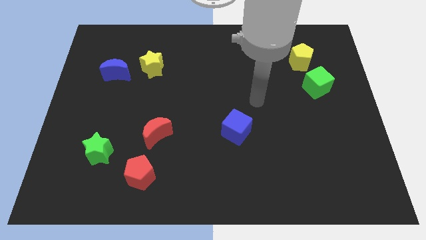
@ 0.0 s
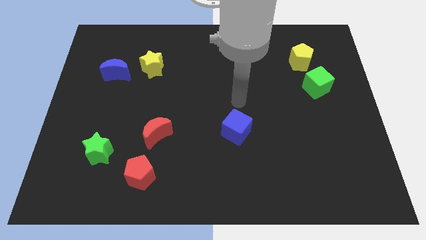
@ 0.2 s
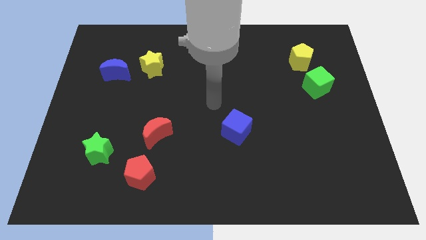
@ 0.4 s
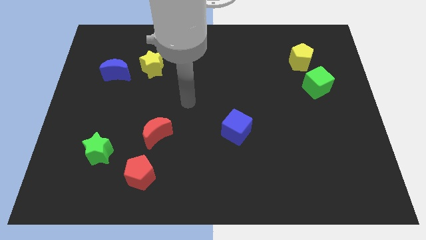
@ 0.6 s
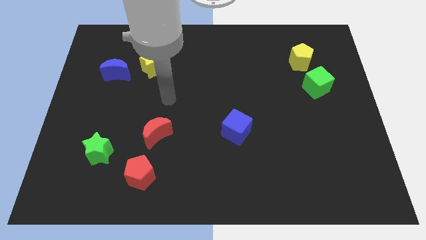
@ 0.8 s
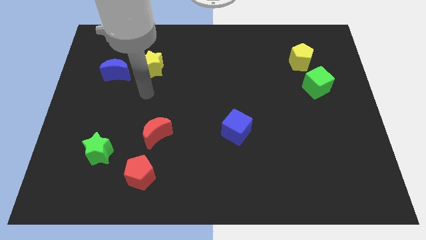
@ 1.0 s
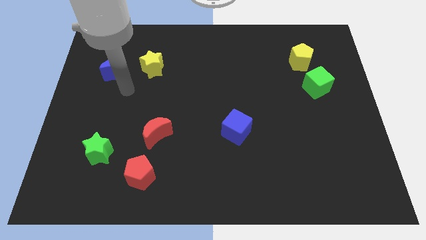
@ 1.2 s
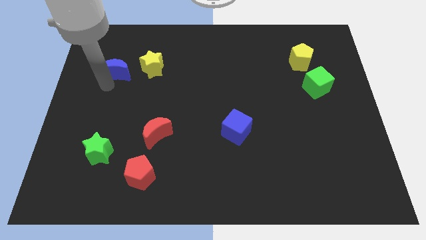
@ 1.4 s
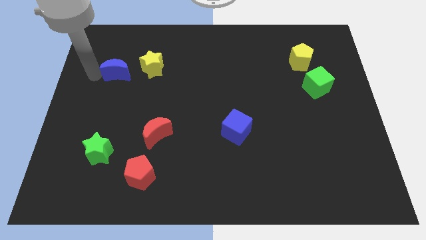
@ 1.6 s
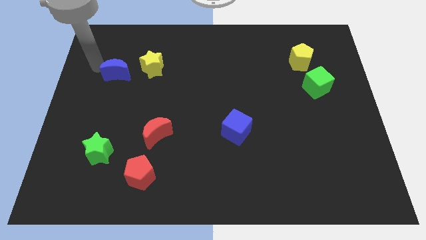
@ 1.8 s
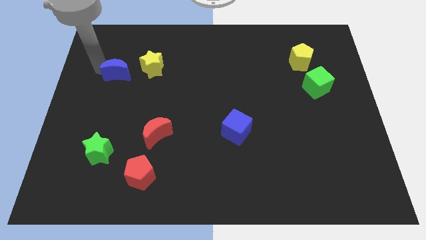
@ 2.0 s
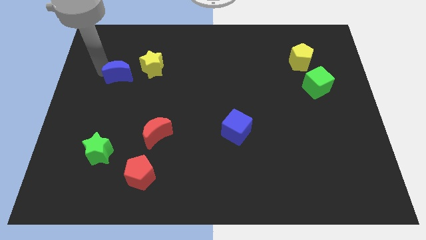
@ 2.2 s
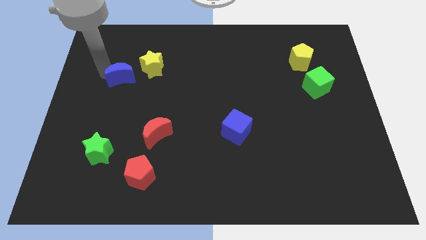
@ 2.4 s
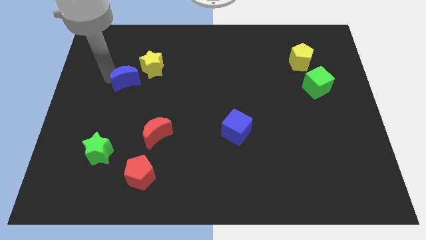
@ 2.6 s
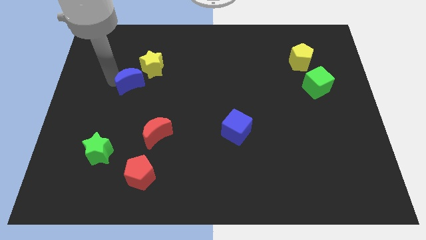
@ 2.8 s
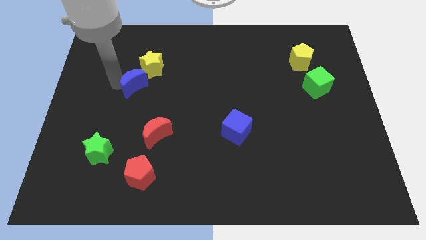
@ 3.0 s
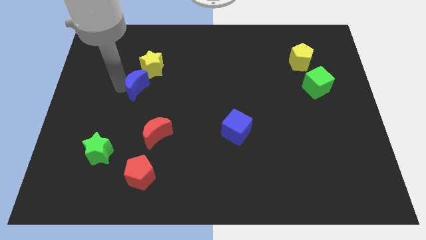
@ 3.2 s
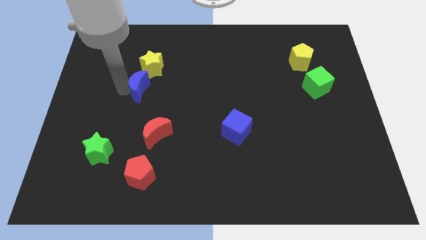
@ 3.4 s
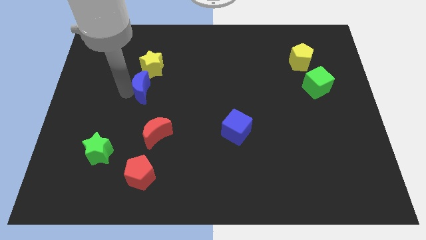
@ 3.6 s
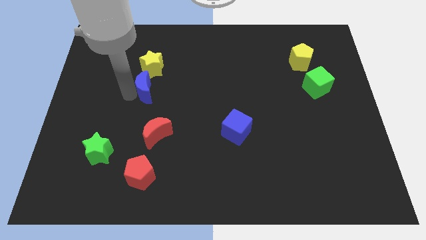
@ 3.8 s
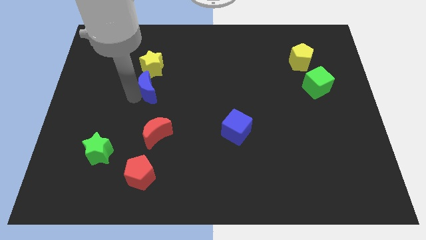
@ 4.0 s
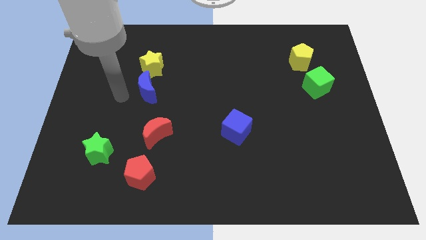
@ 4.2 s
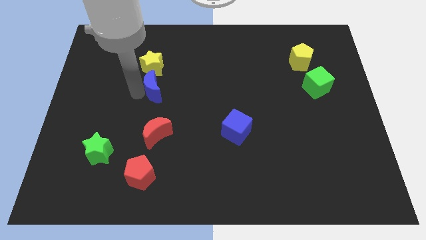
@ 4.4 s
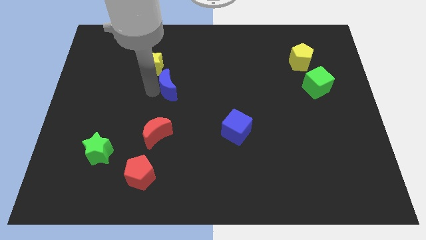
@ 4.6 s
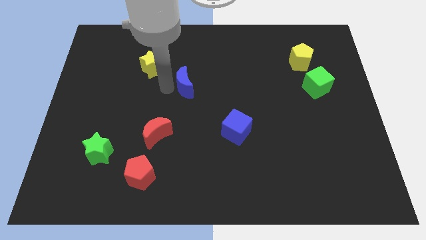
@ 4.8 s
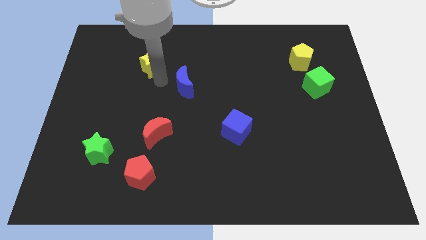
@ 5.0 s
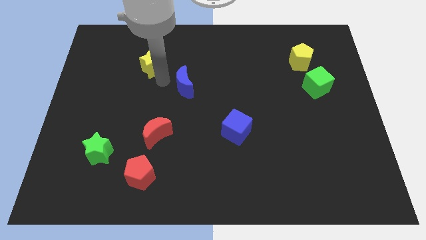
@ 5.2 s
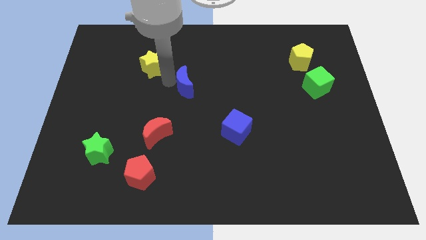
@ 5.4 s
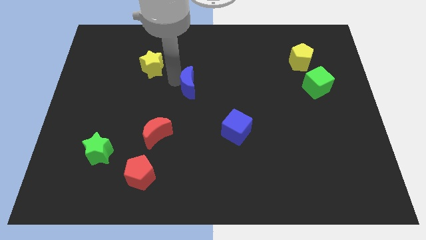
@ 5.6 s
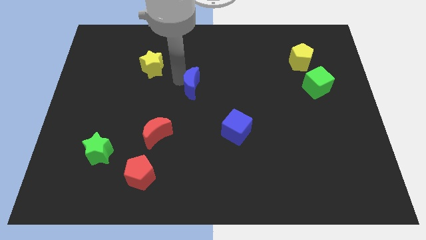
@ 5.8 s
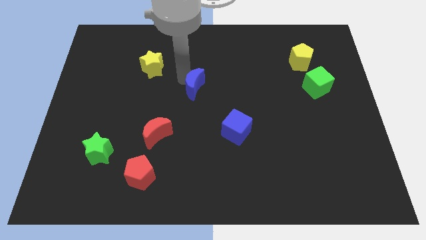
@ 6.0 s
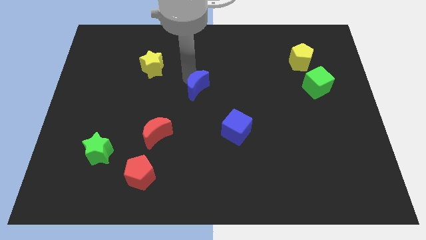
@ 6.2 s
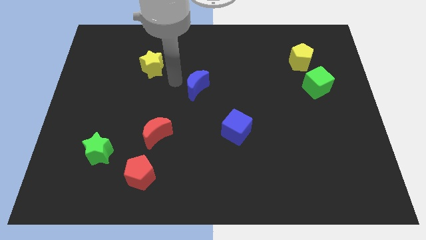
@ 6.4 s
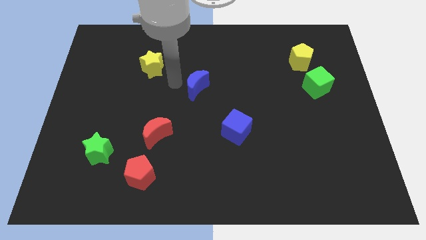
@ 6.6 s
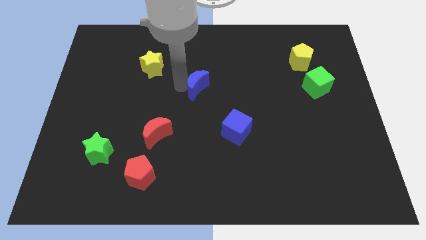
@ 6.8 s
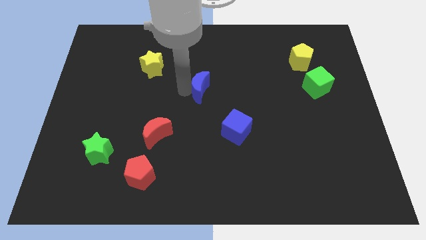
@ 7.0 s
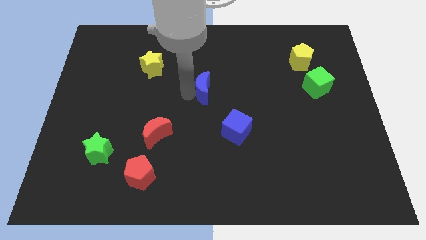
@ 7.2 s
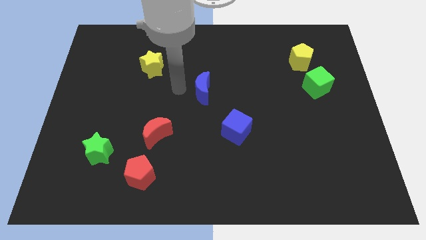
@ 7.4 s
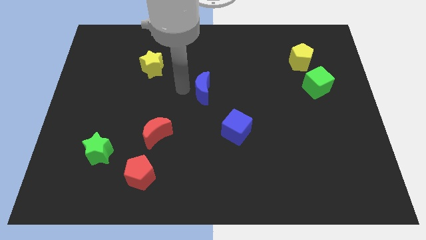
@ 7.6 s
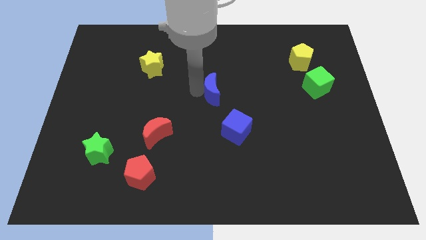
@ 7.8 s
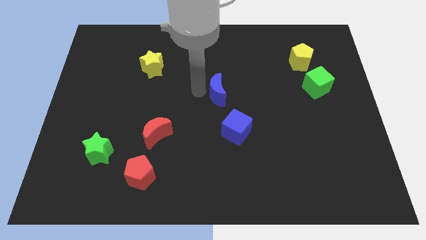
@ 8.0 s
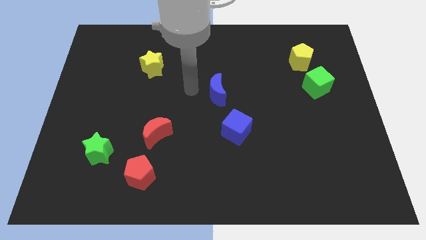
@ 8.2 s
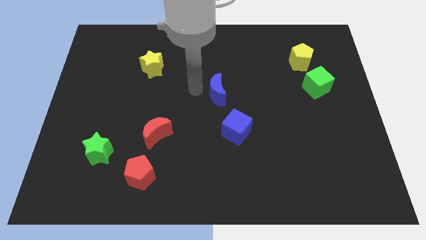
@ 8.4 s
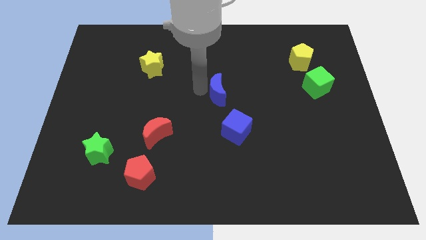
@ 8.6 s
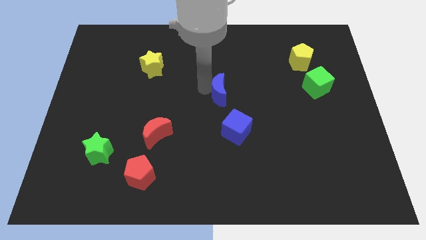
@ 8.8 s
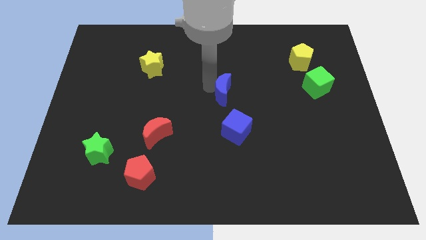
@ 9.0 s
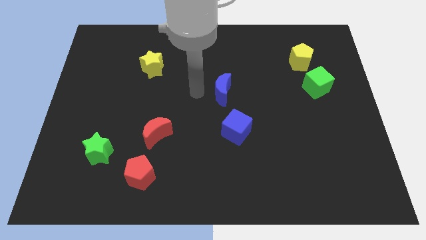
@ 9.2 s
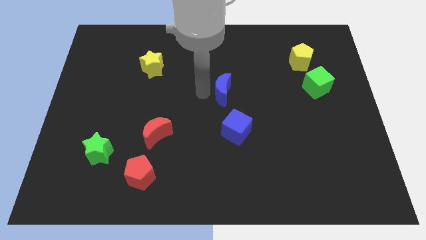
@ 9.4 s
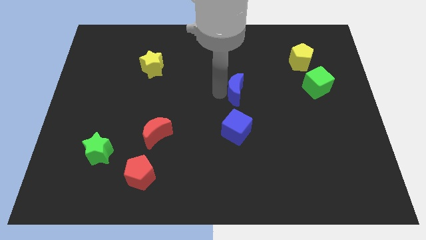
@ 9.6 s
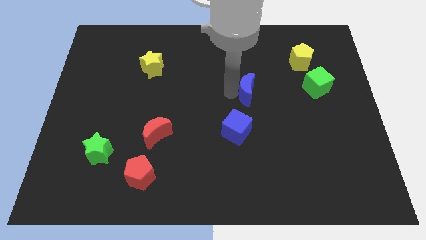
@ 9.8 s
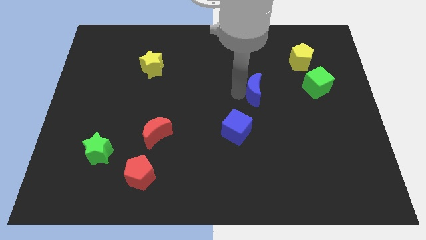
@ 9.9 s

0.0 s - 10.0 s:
move the blue moon to the left side of the green cube

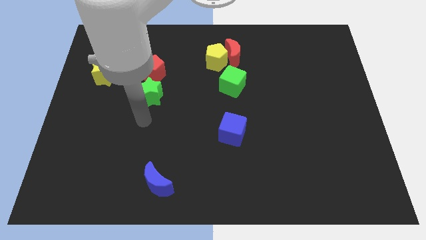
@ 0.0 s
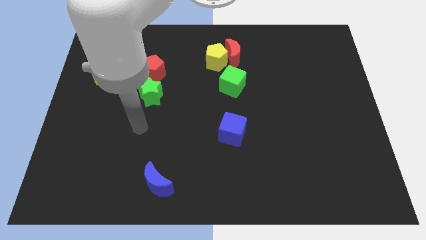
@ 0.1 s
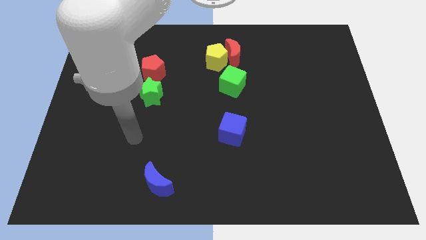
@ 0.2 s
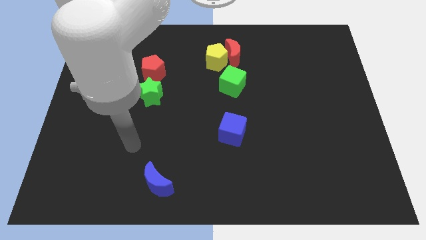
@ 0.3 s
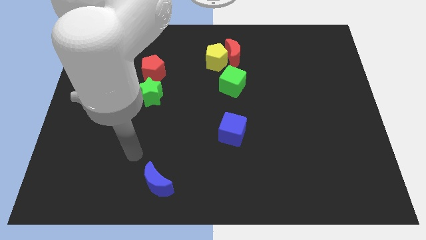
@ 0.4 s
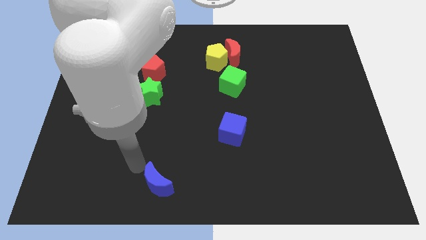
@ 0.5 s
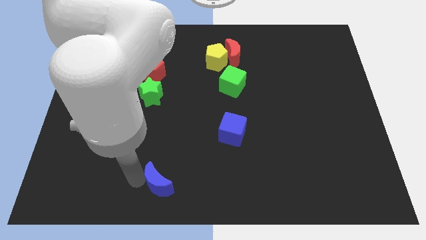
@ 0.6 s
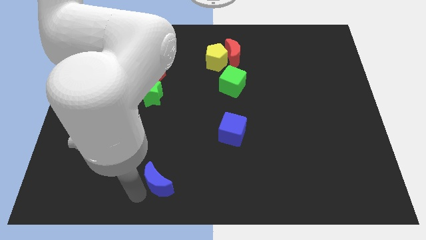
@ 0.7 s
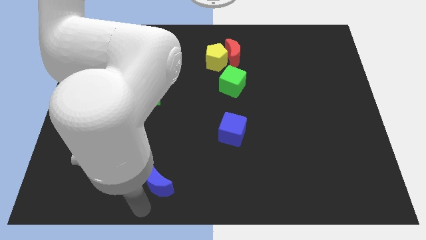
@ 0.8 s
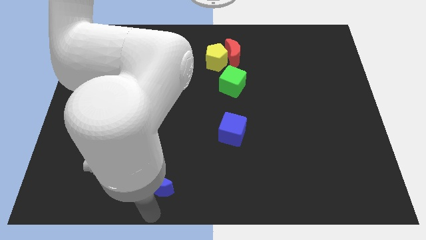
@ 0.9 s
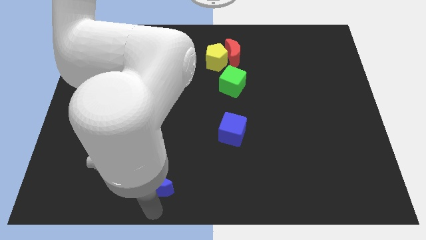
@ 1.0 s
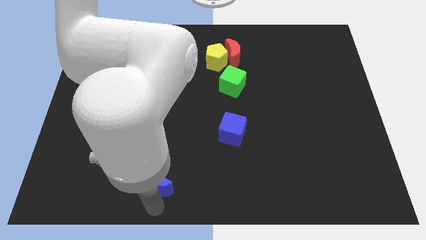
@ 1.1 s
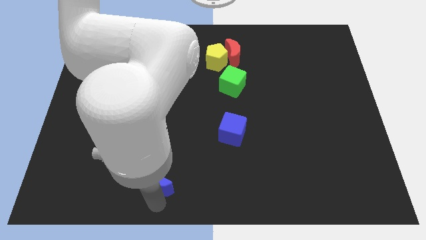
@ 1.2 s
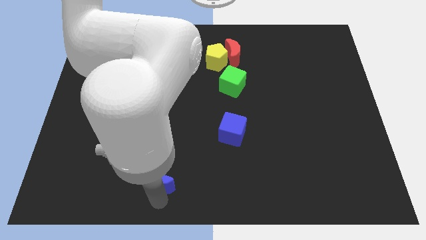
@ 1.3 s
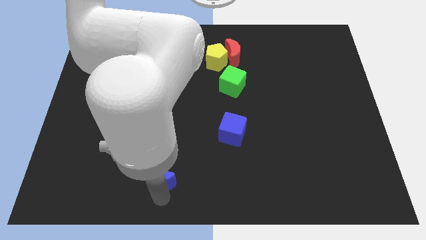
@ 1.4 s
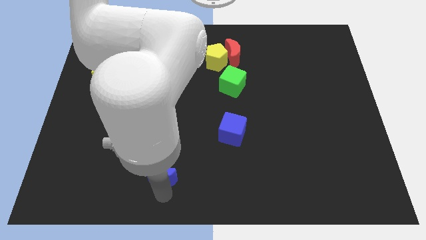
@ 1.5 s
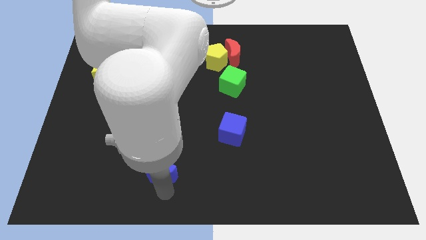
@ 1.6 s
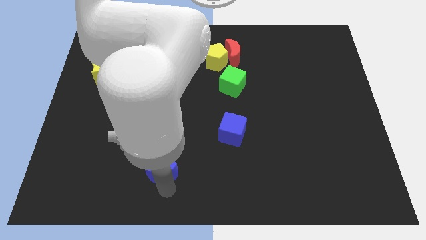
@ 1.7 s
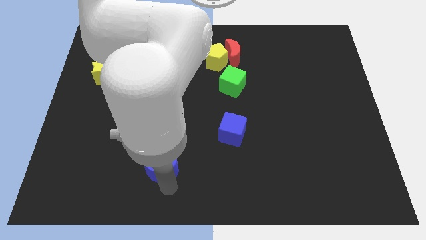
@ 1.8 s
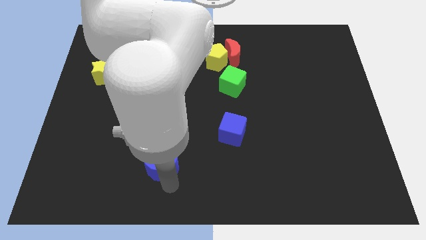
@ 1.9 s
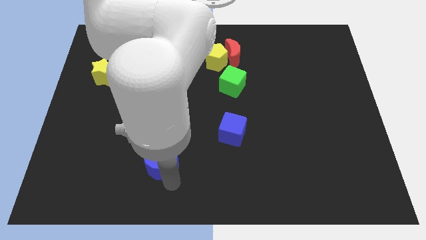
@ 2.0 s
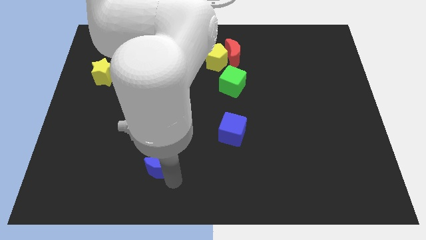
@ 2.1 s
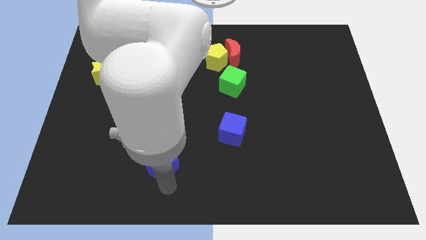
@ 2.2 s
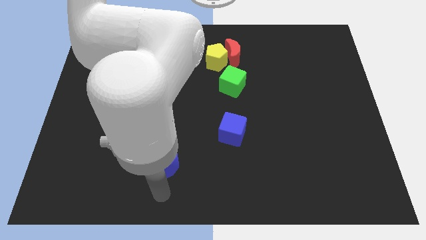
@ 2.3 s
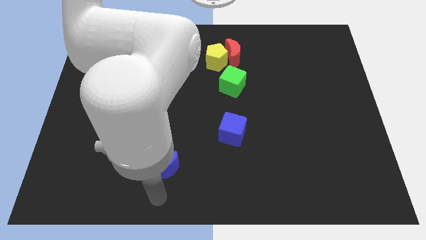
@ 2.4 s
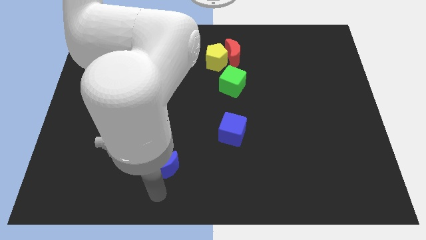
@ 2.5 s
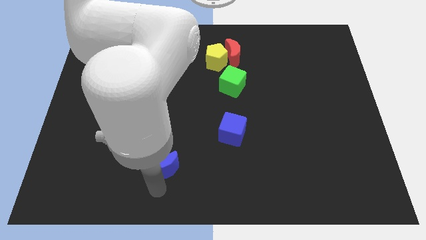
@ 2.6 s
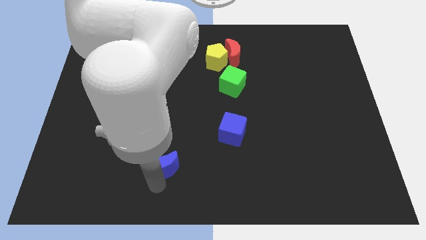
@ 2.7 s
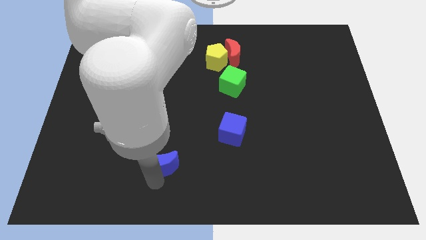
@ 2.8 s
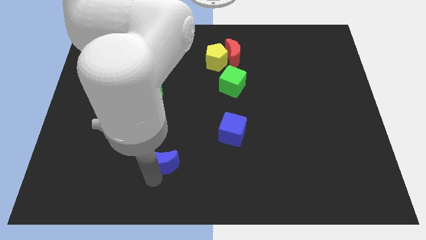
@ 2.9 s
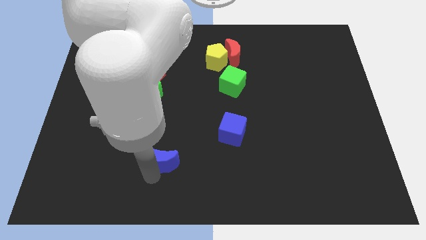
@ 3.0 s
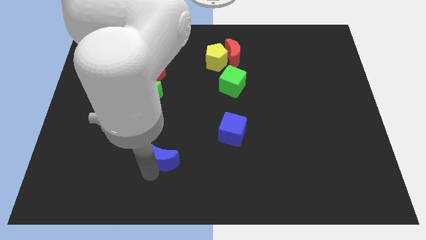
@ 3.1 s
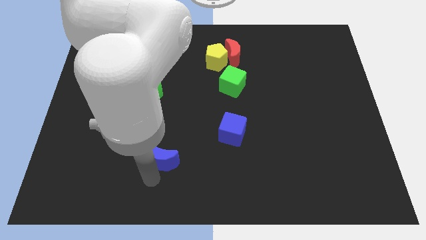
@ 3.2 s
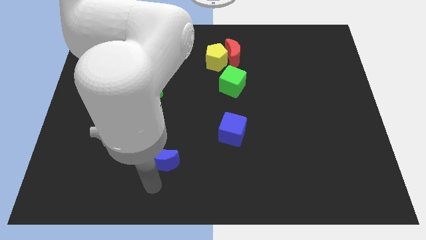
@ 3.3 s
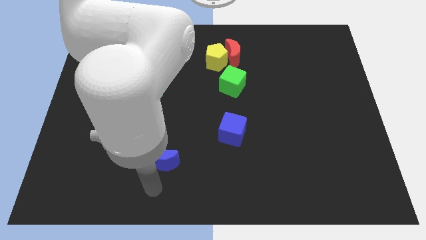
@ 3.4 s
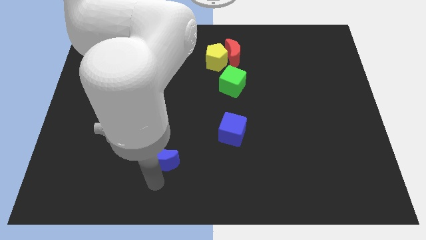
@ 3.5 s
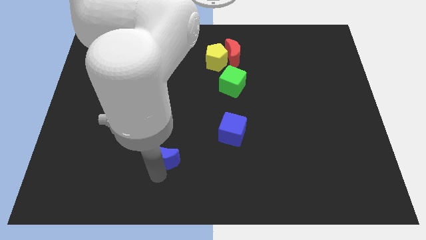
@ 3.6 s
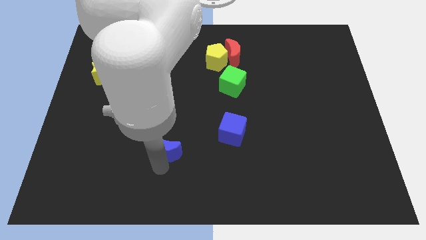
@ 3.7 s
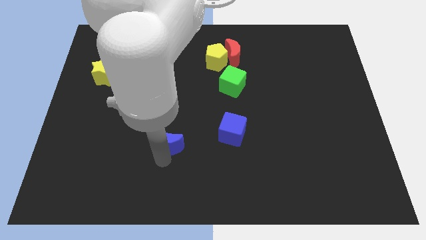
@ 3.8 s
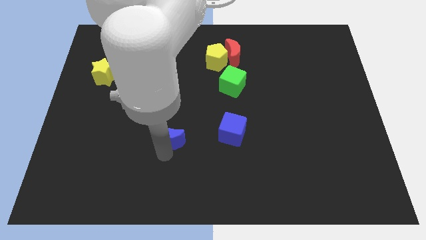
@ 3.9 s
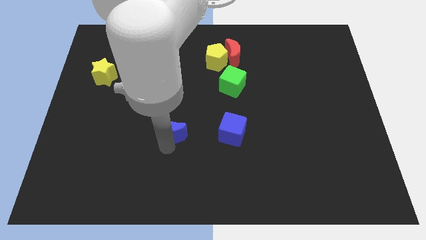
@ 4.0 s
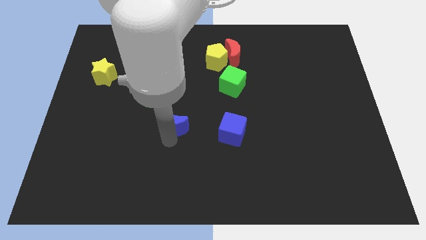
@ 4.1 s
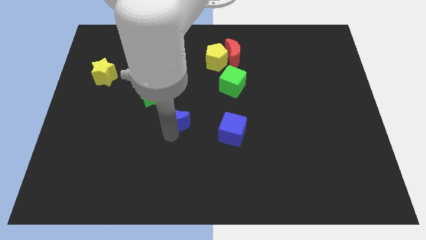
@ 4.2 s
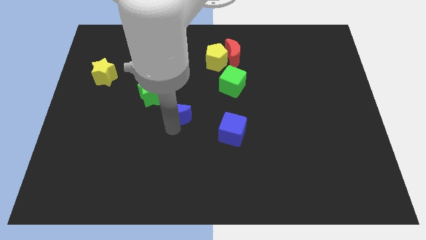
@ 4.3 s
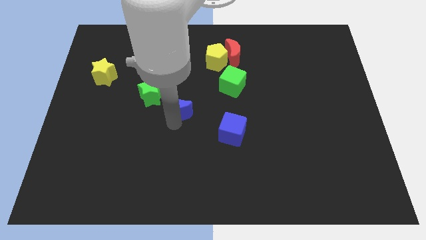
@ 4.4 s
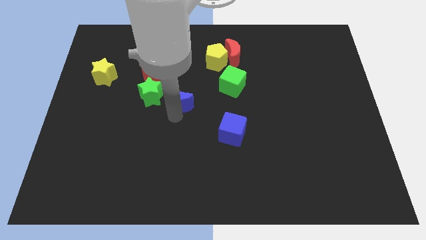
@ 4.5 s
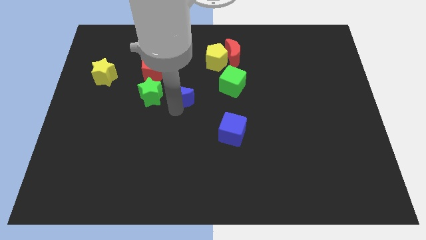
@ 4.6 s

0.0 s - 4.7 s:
push the blue moon to the left of the green cube
